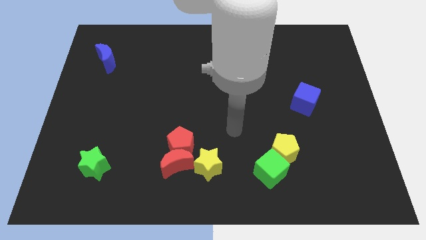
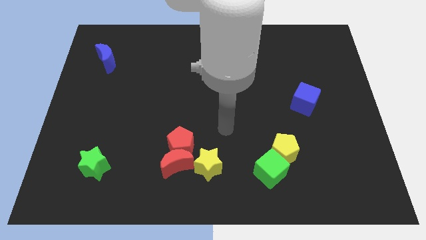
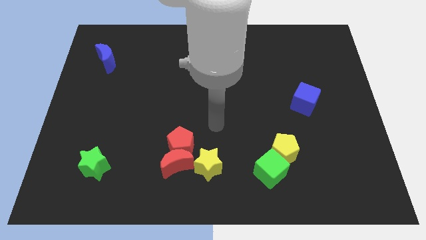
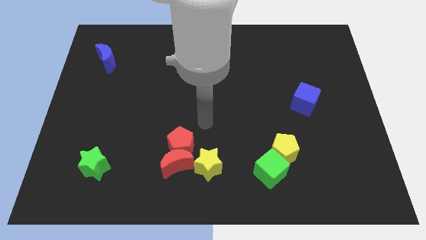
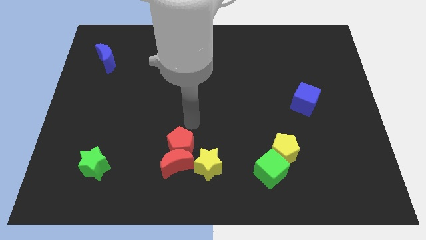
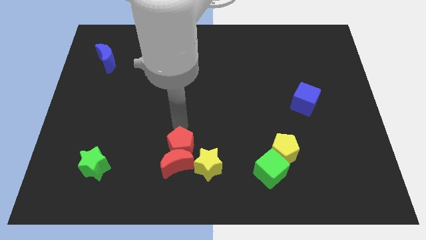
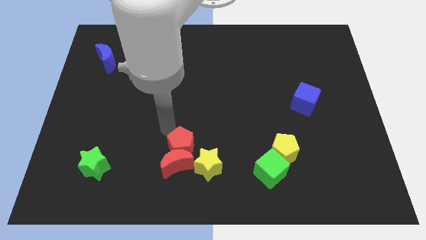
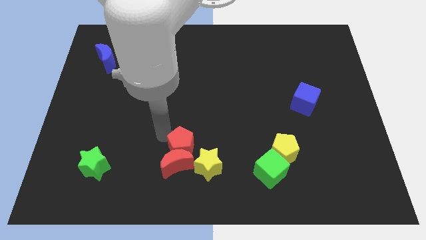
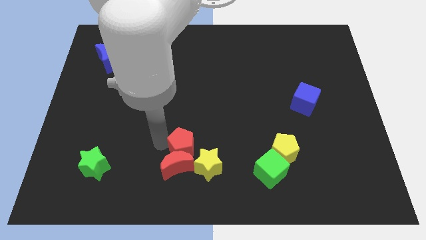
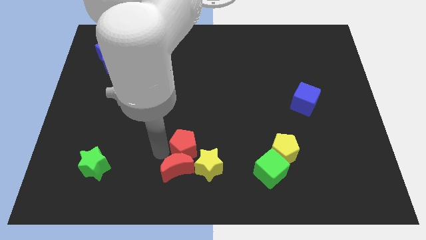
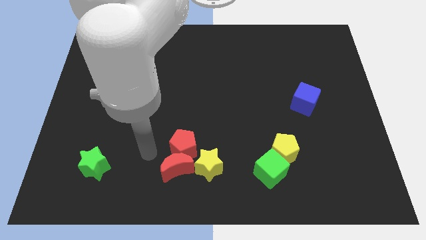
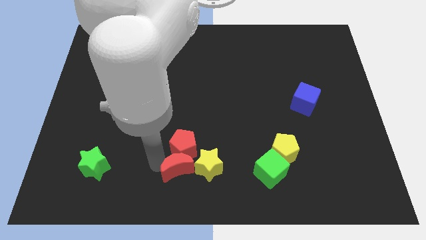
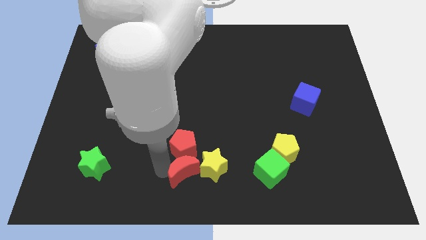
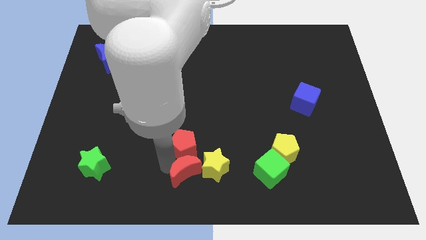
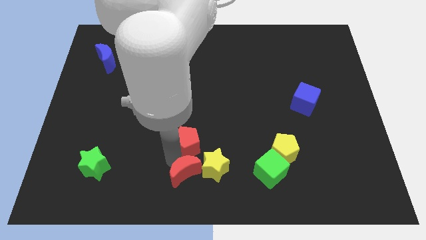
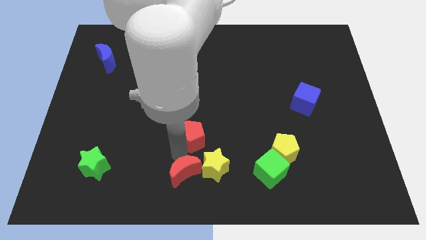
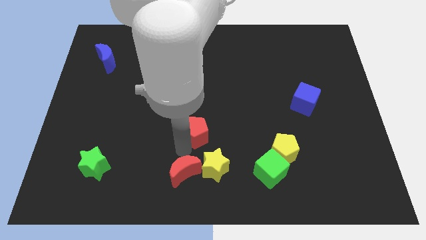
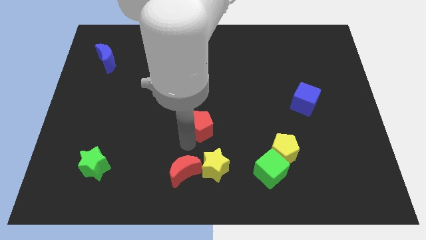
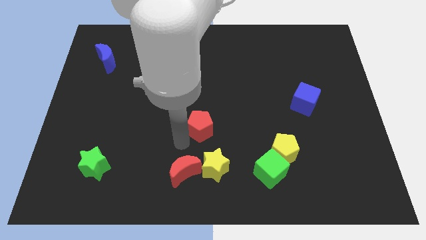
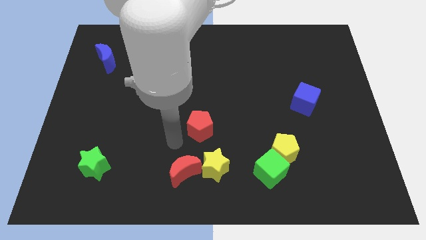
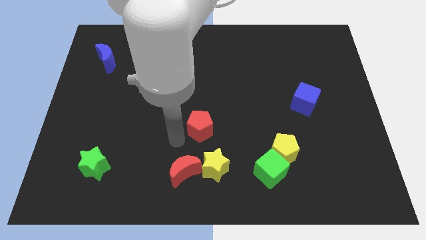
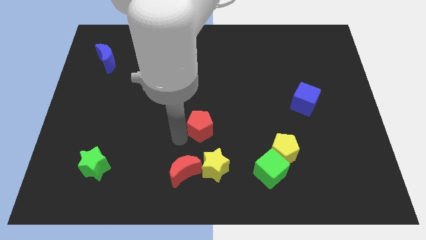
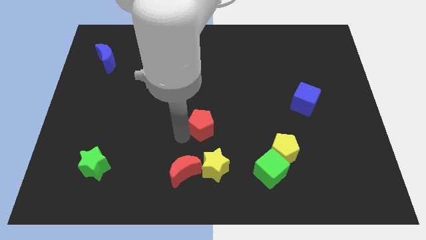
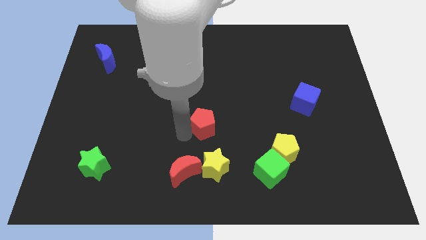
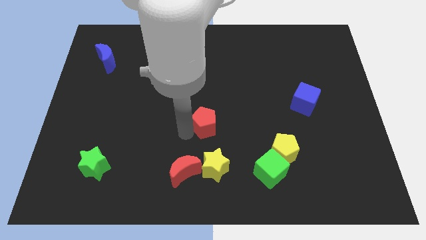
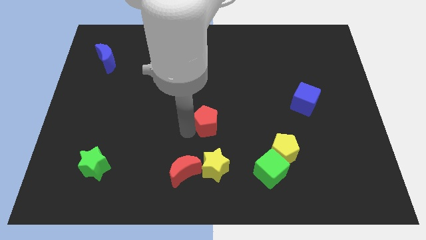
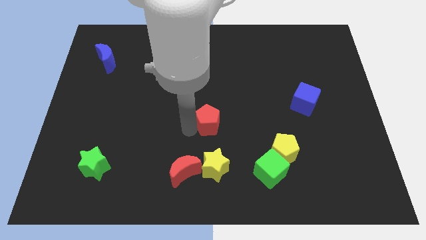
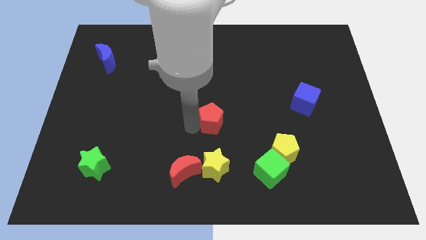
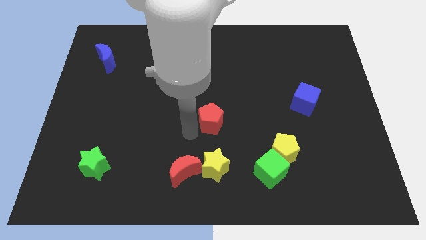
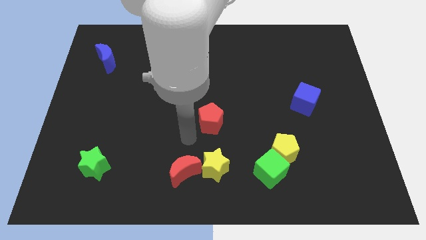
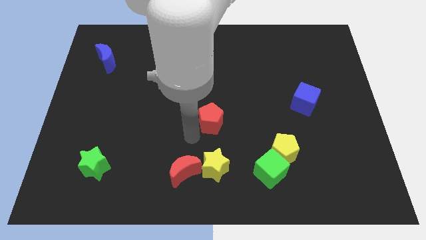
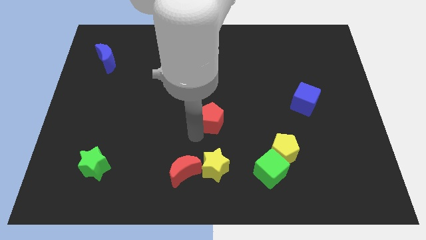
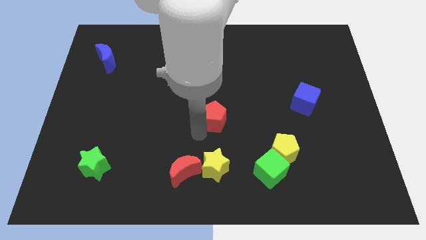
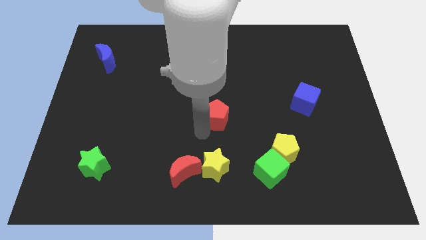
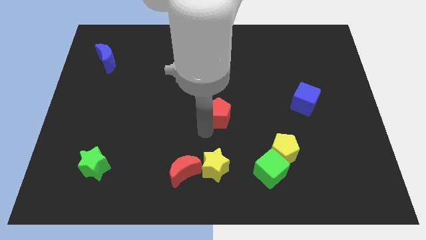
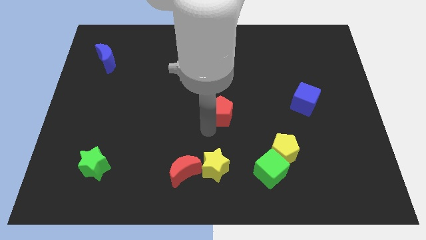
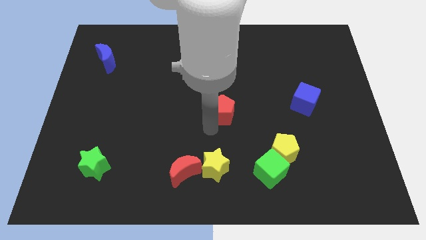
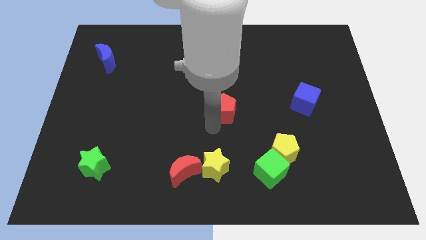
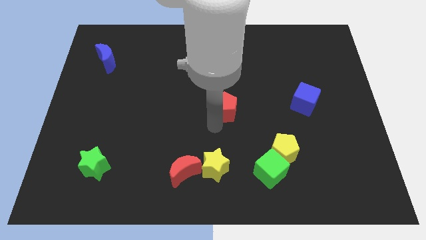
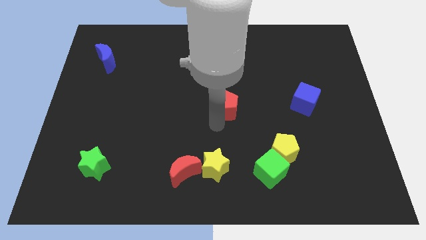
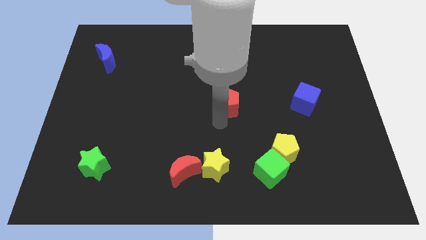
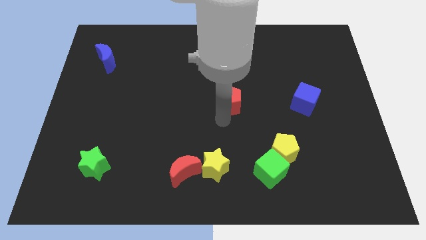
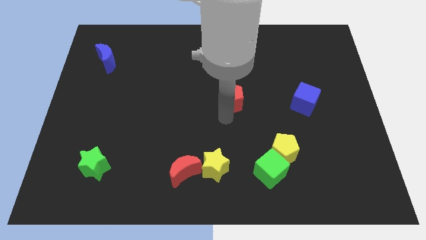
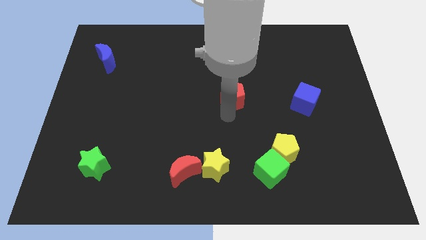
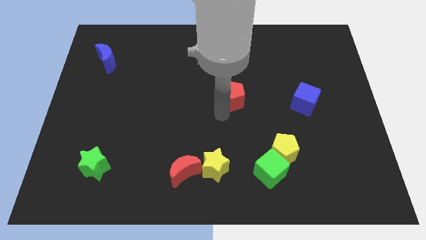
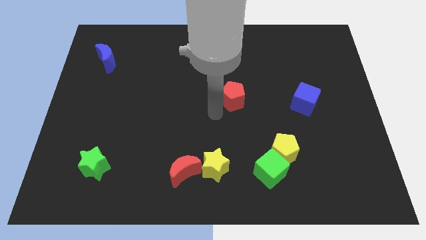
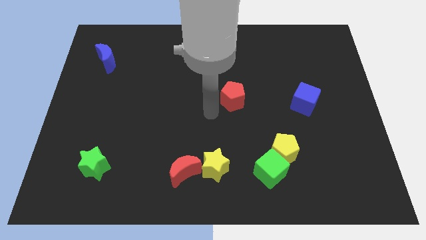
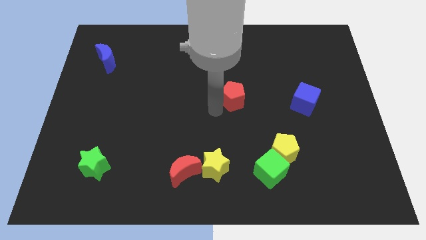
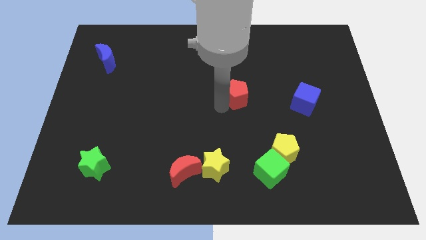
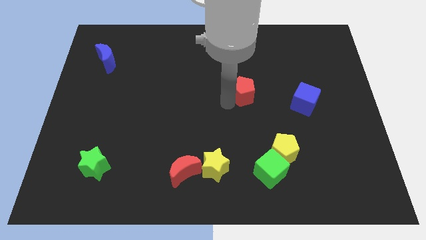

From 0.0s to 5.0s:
push the red pentagon upwards and then to the right

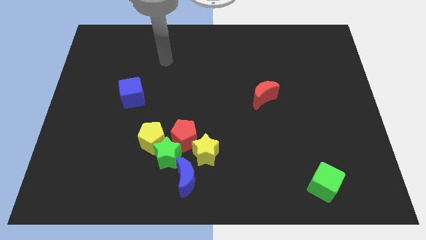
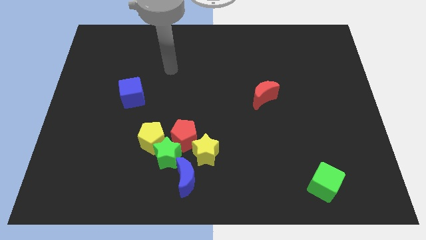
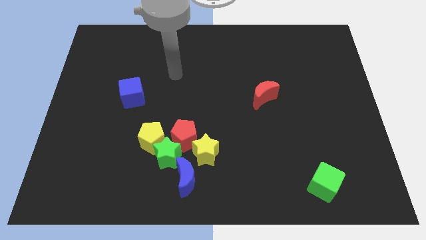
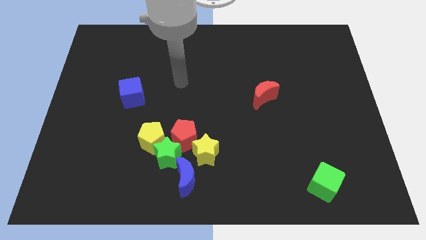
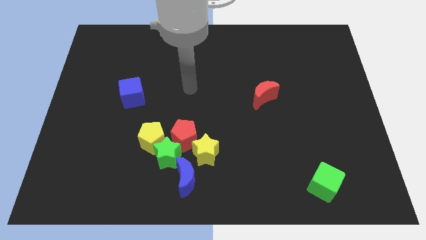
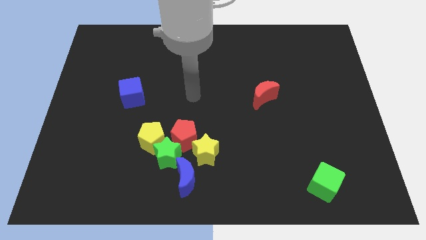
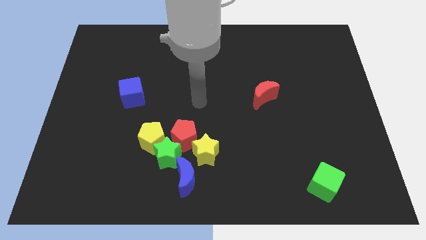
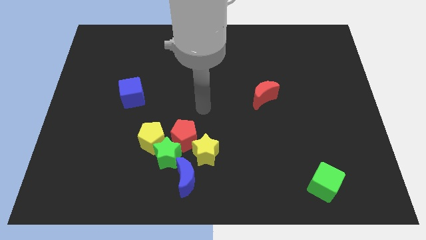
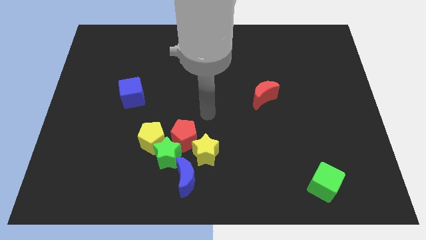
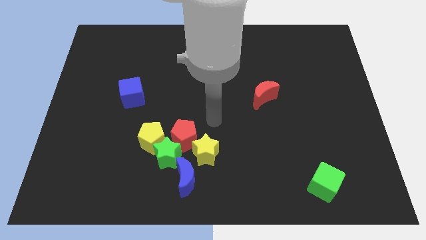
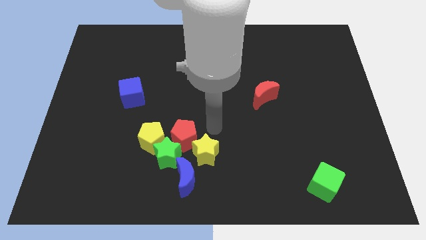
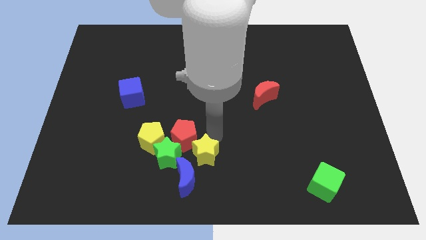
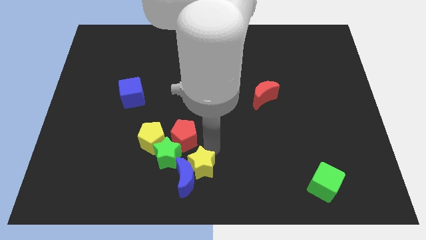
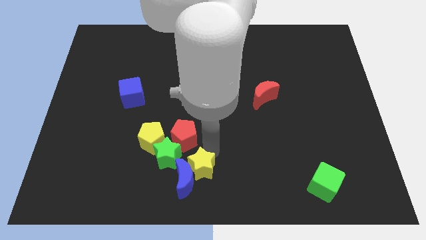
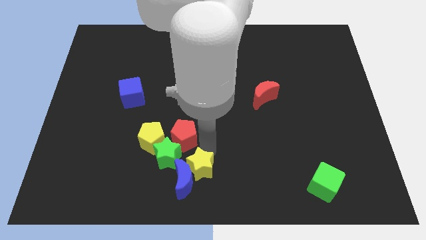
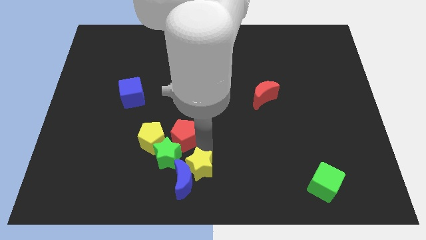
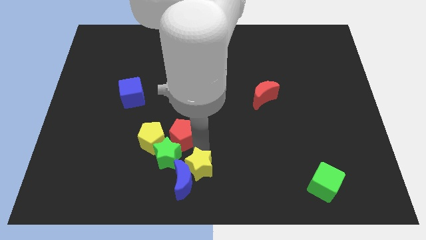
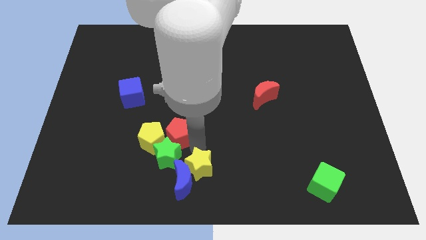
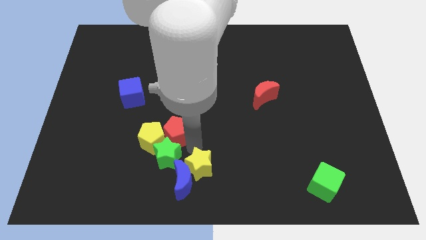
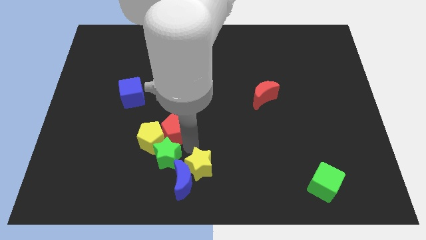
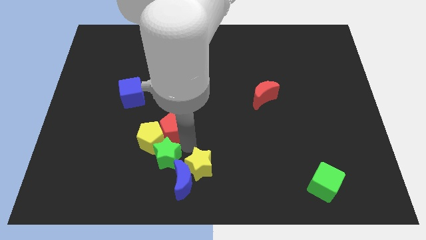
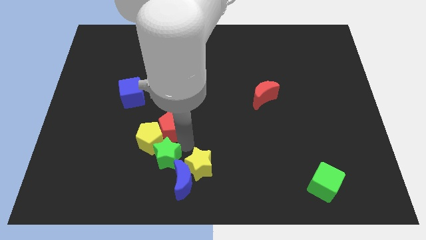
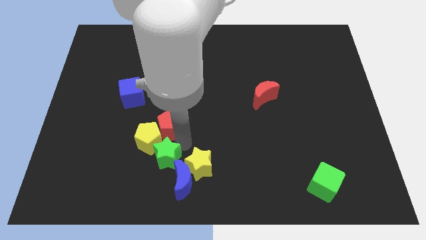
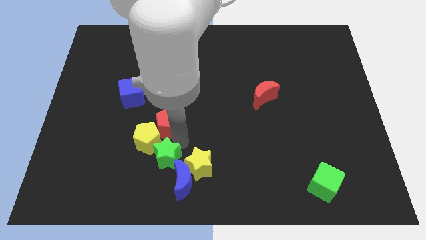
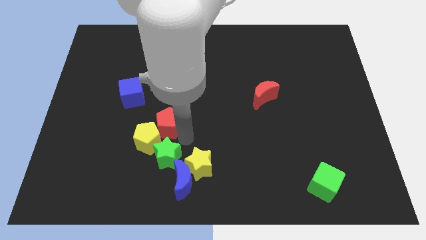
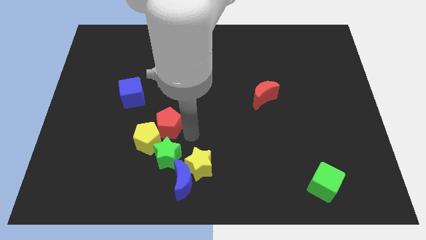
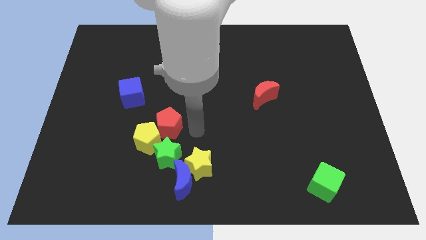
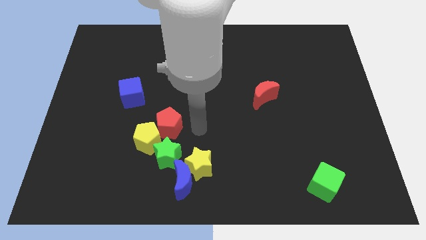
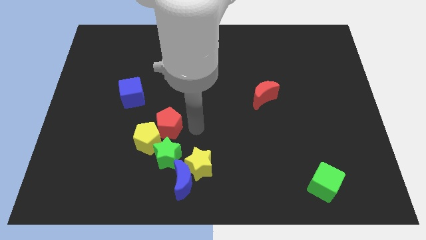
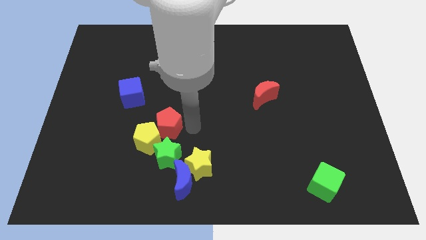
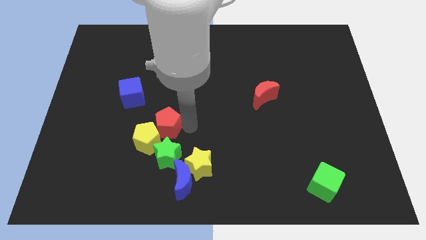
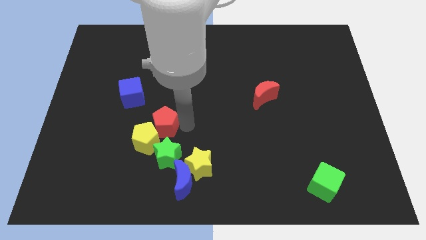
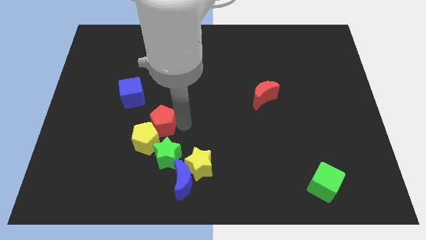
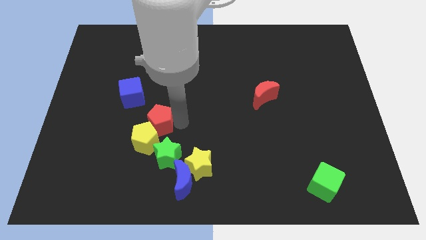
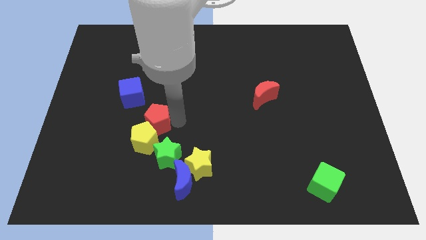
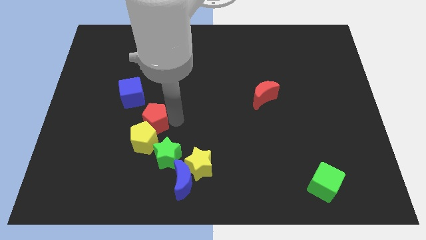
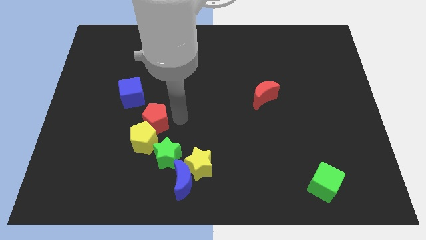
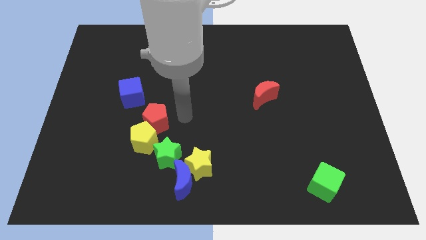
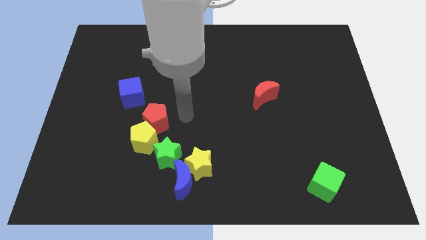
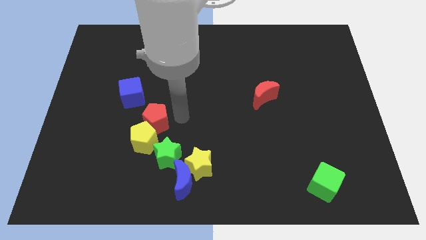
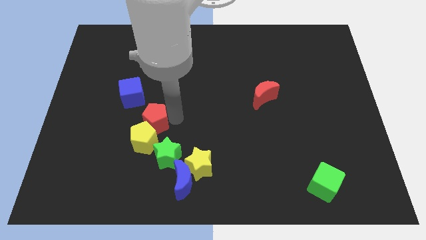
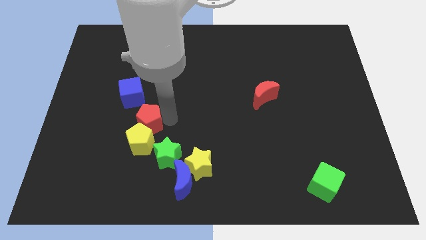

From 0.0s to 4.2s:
push the red pentagon a bit left
